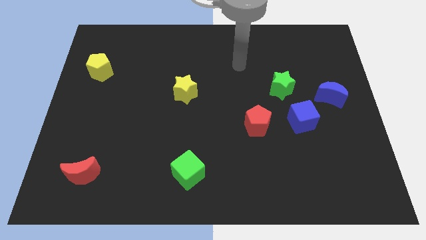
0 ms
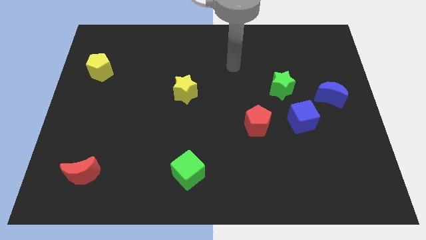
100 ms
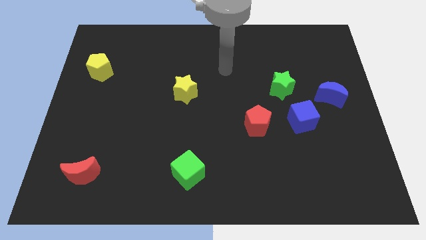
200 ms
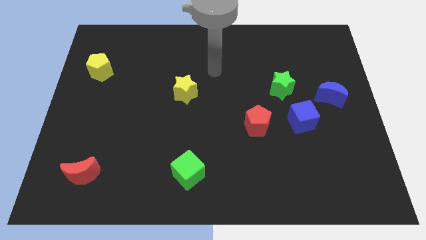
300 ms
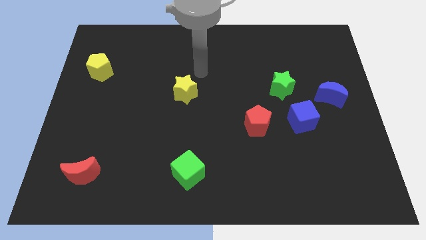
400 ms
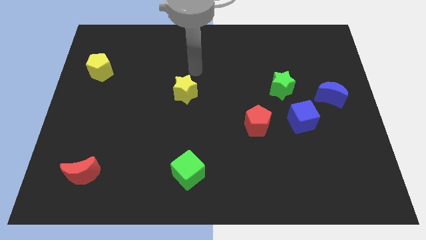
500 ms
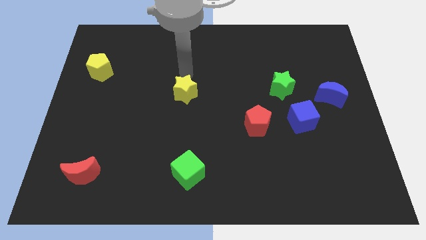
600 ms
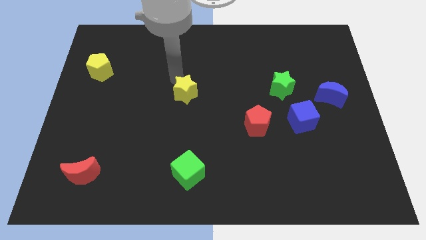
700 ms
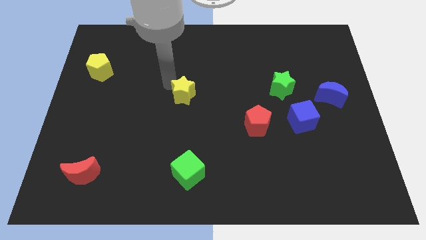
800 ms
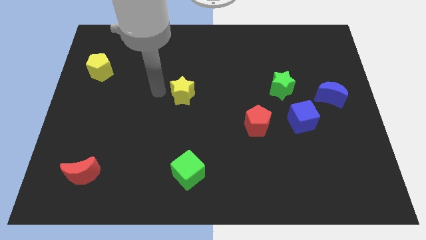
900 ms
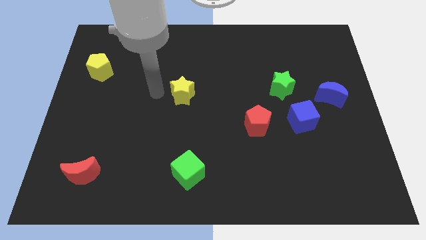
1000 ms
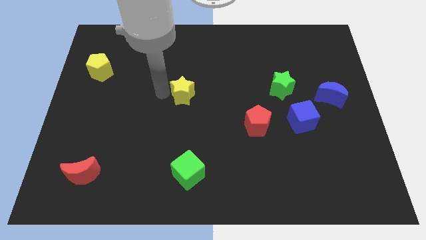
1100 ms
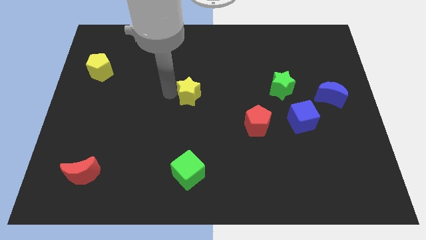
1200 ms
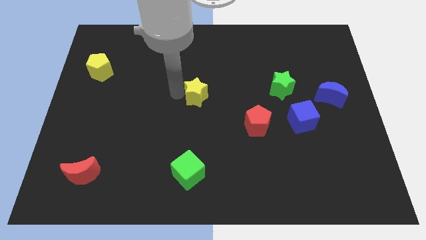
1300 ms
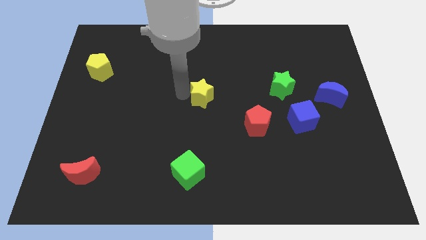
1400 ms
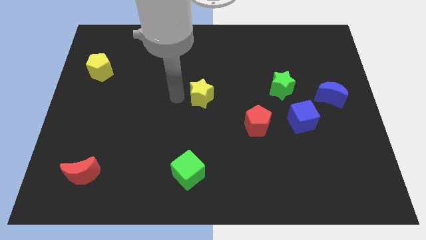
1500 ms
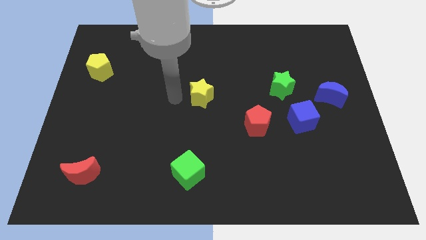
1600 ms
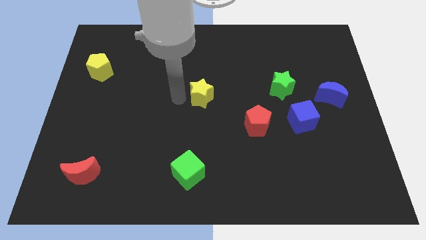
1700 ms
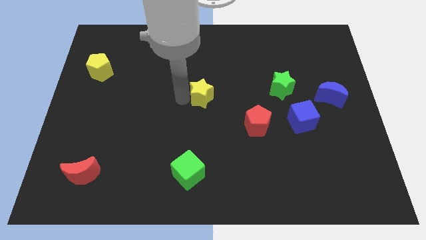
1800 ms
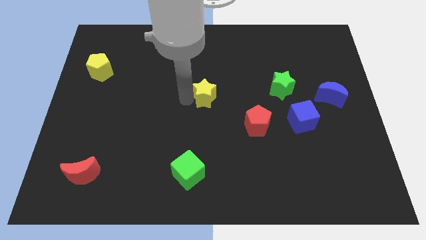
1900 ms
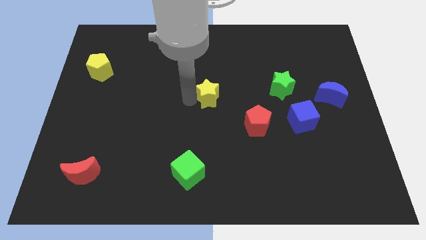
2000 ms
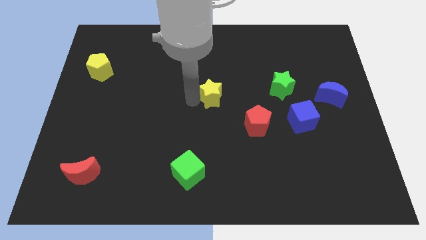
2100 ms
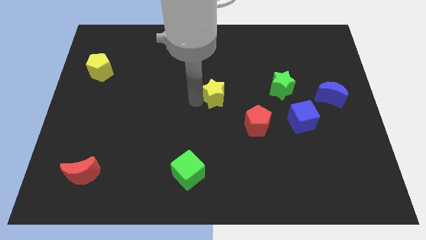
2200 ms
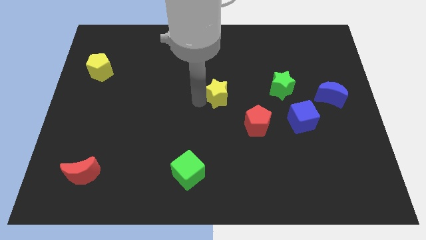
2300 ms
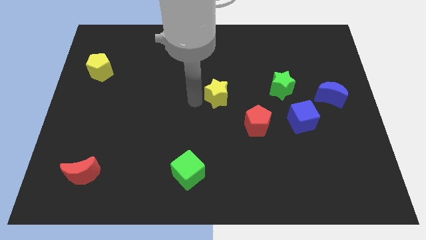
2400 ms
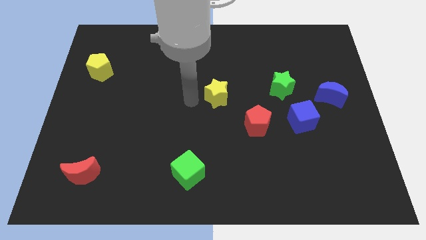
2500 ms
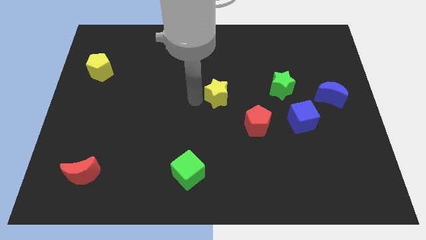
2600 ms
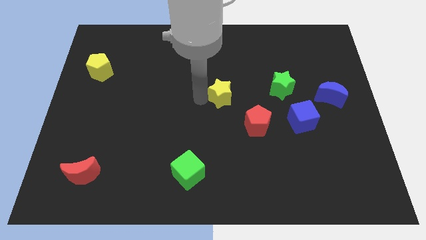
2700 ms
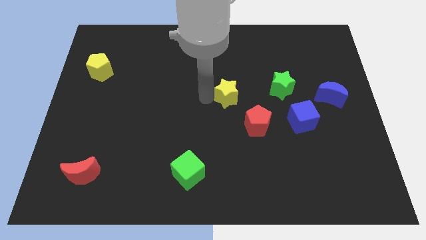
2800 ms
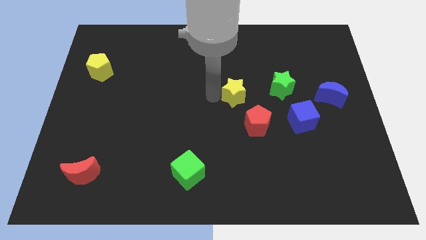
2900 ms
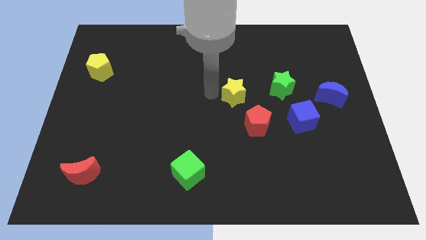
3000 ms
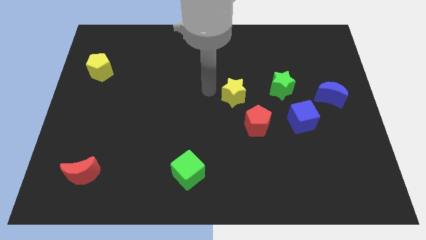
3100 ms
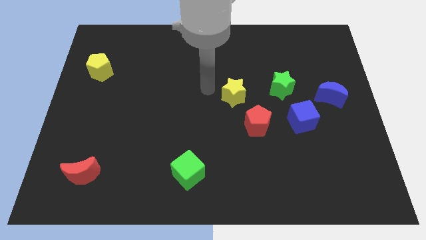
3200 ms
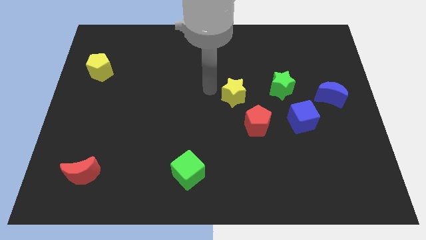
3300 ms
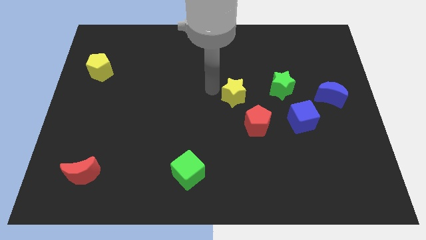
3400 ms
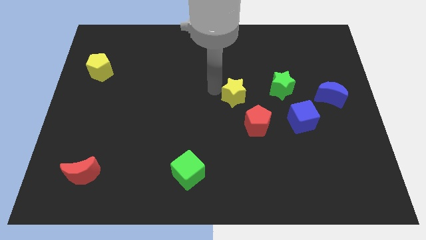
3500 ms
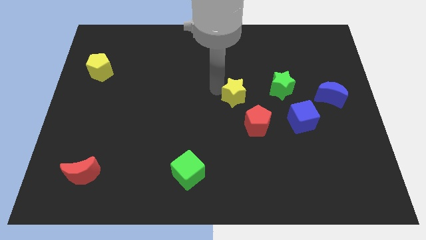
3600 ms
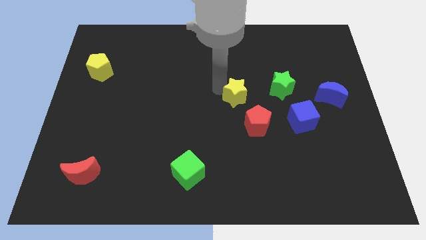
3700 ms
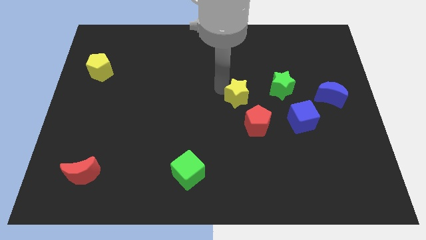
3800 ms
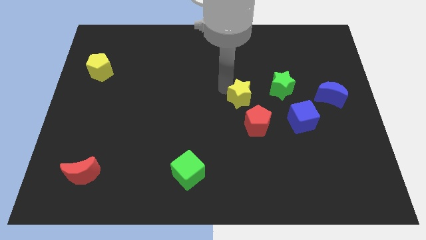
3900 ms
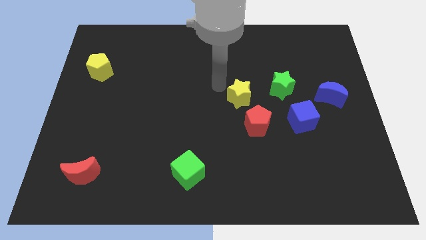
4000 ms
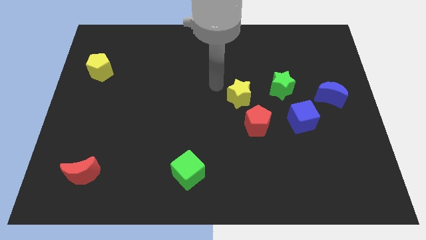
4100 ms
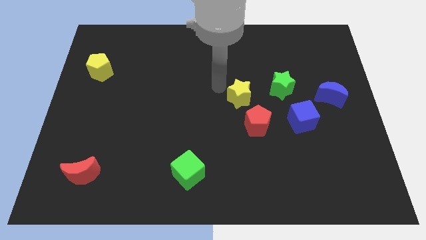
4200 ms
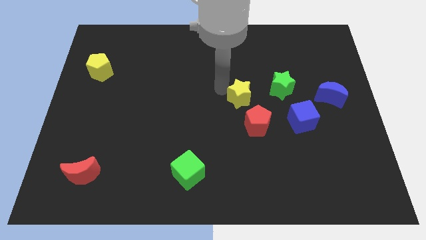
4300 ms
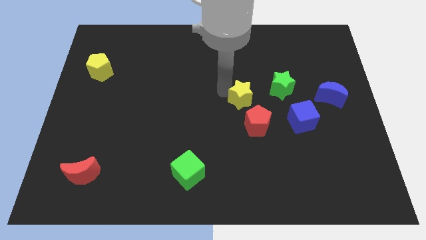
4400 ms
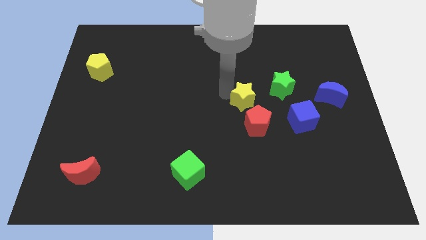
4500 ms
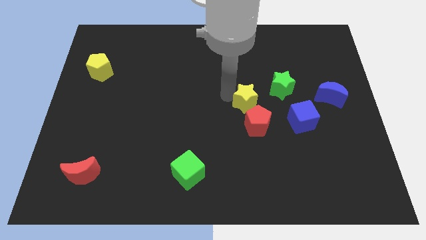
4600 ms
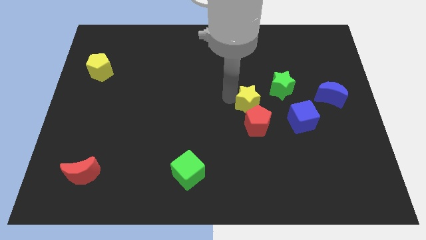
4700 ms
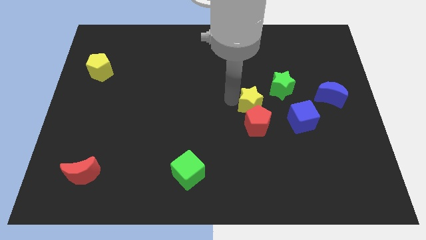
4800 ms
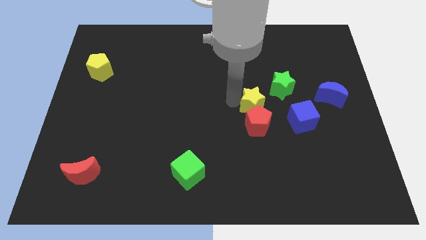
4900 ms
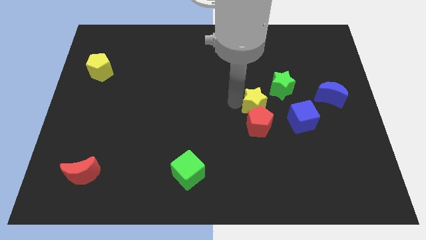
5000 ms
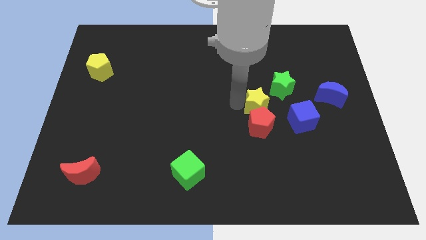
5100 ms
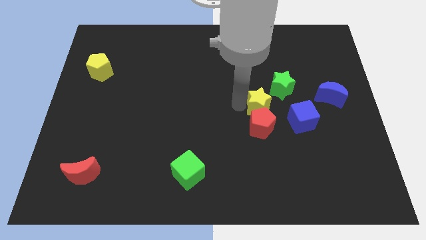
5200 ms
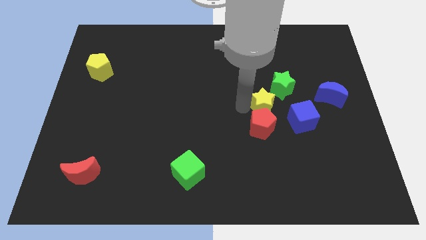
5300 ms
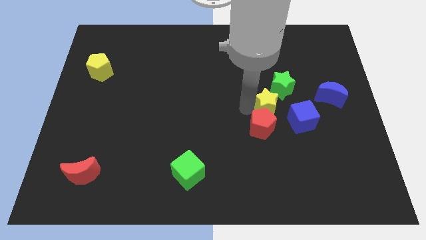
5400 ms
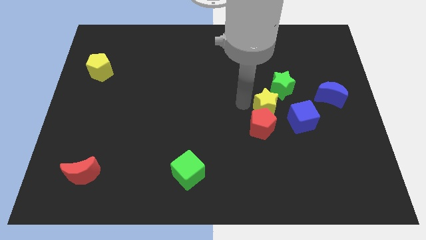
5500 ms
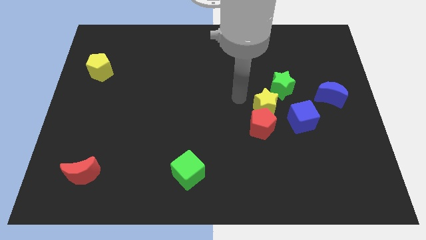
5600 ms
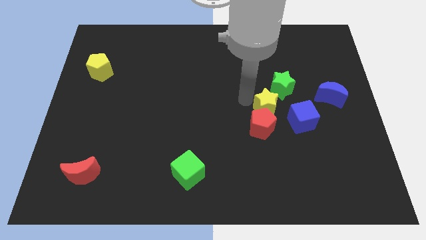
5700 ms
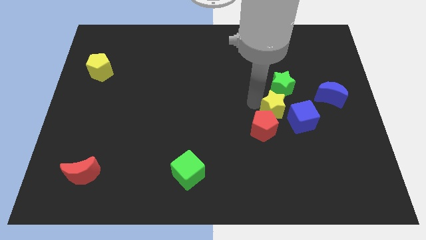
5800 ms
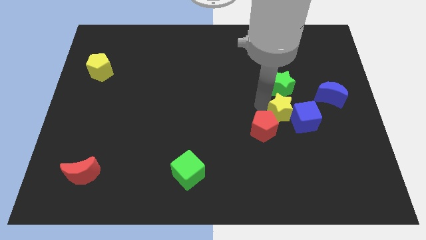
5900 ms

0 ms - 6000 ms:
push the yellow star next to the blue cube
